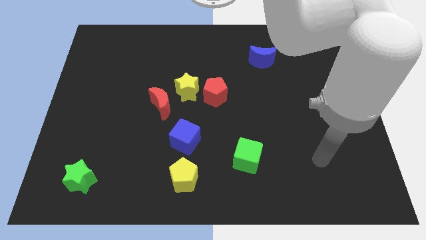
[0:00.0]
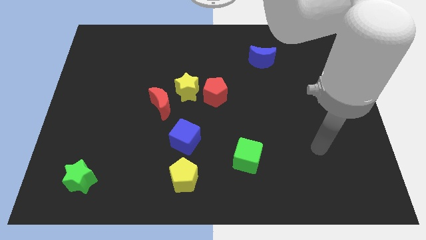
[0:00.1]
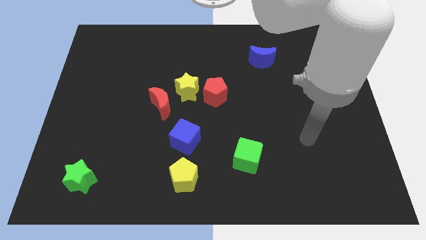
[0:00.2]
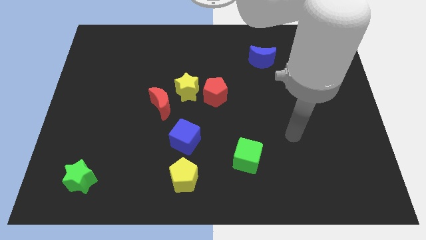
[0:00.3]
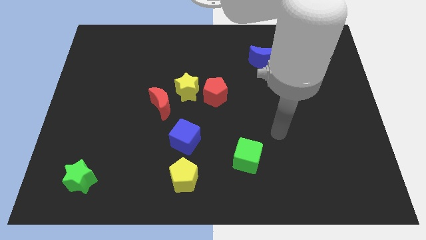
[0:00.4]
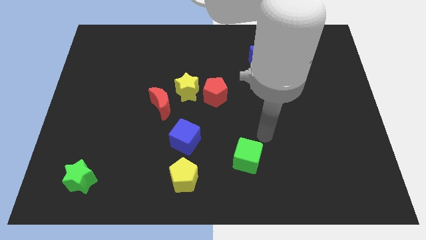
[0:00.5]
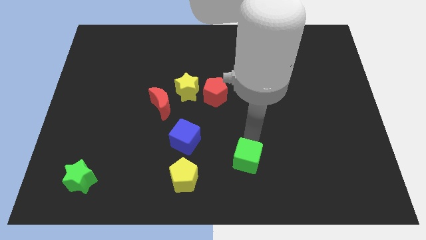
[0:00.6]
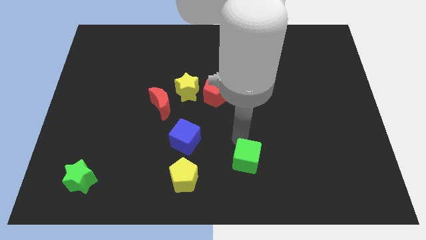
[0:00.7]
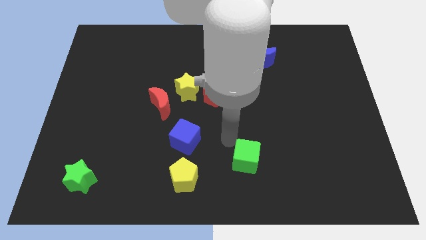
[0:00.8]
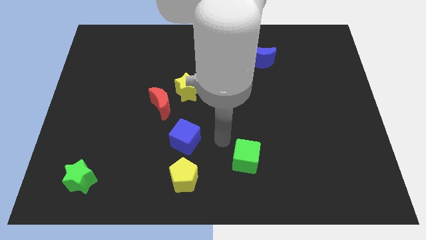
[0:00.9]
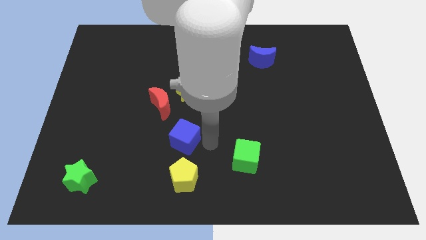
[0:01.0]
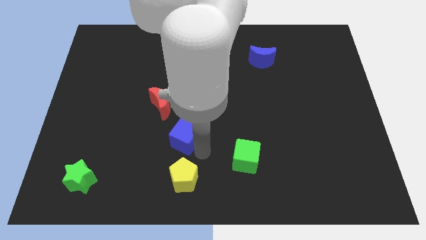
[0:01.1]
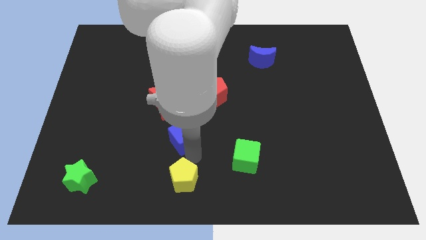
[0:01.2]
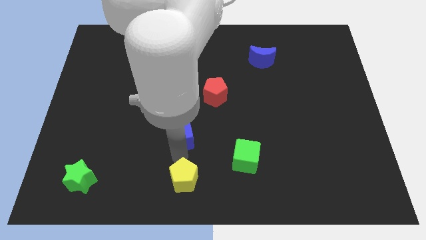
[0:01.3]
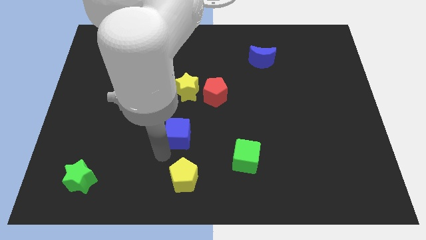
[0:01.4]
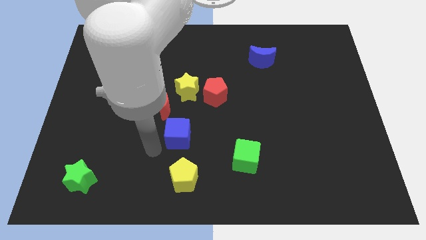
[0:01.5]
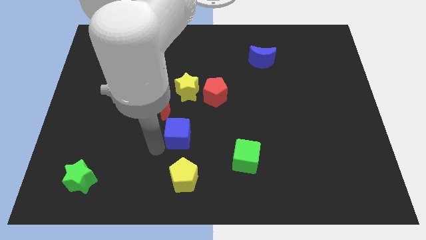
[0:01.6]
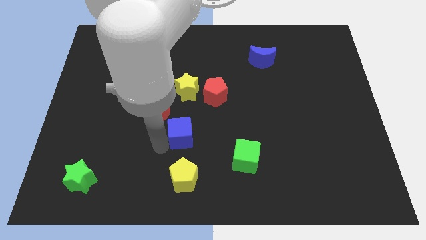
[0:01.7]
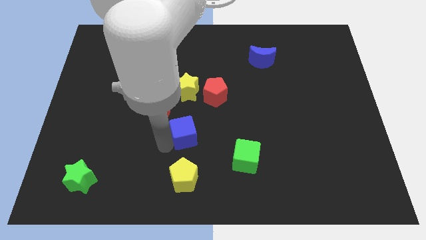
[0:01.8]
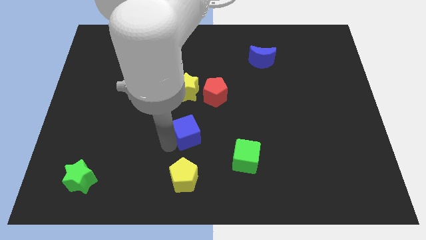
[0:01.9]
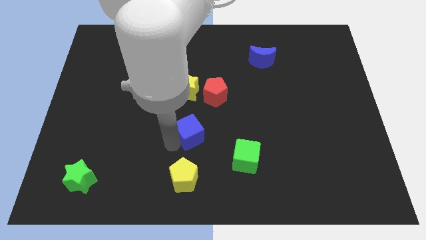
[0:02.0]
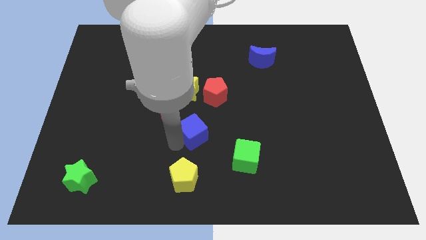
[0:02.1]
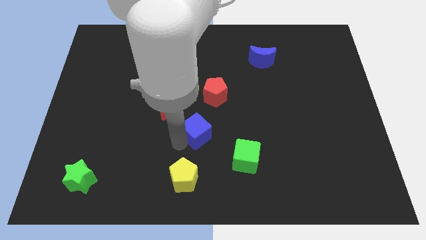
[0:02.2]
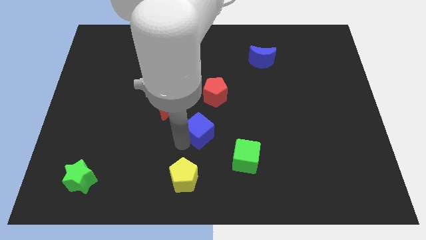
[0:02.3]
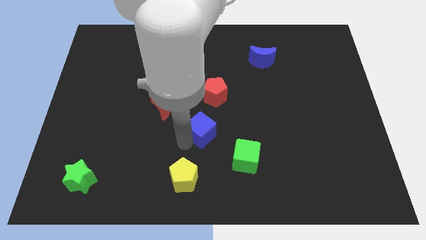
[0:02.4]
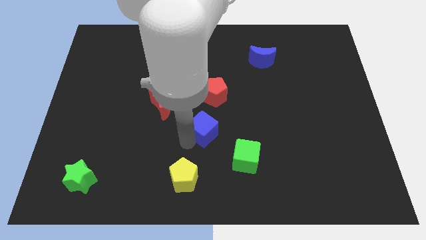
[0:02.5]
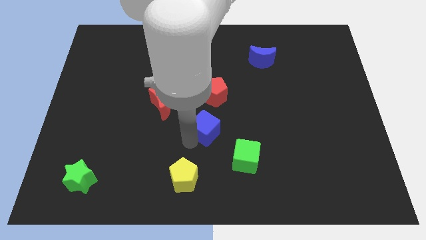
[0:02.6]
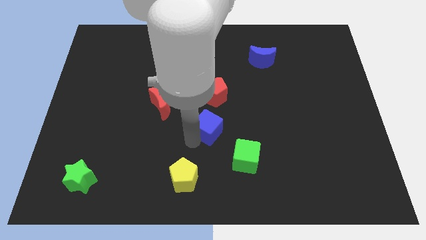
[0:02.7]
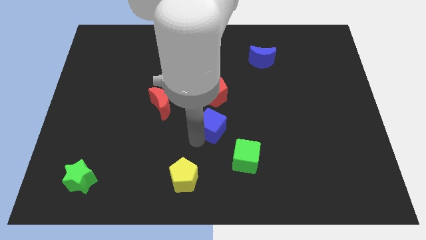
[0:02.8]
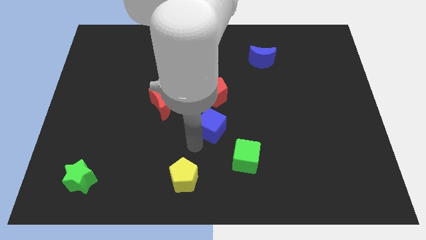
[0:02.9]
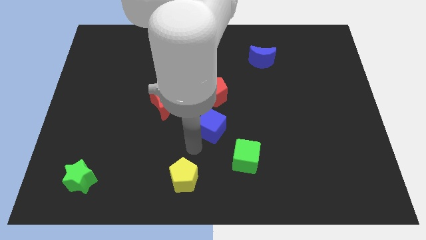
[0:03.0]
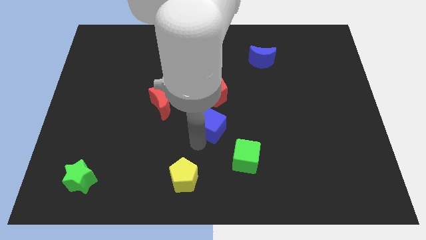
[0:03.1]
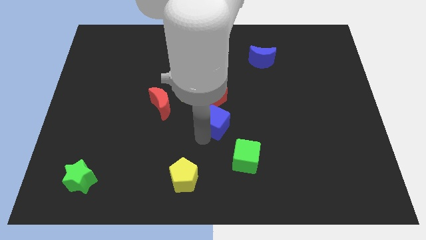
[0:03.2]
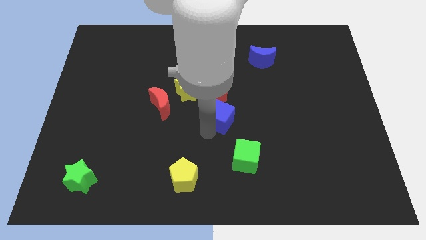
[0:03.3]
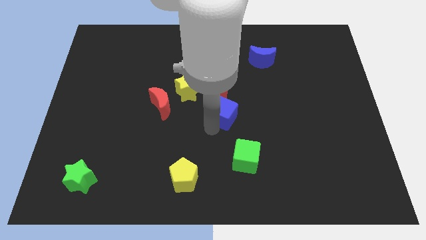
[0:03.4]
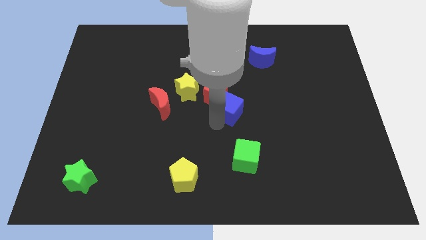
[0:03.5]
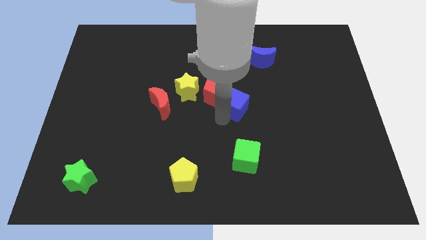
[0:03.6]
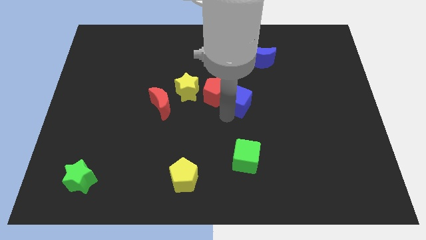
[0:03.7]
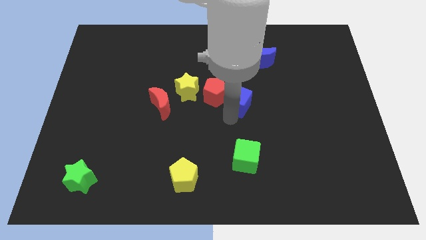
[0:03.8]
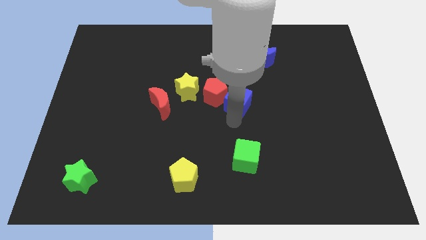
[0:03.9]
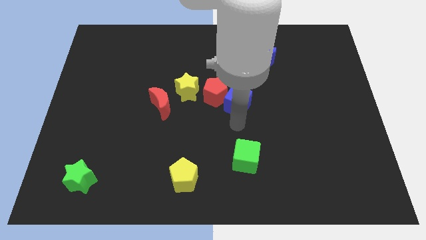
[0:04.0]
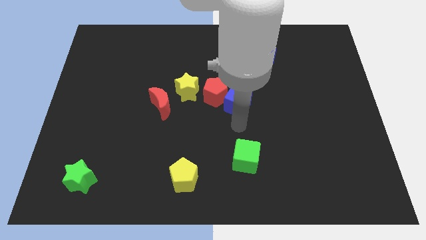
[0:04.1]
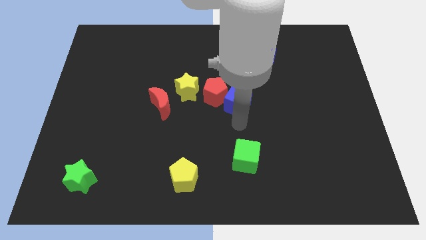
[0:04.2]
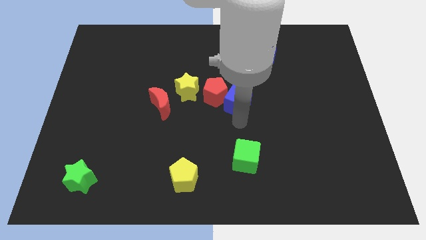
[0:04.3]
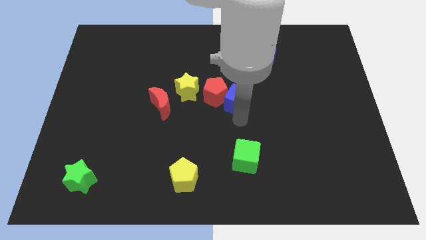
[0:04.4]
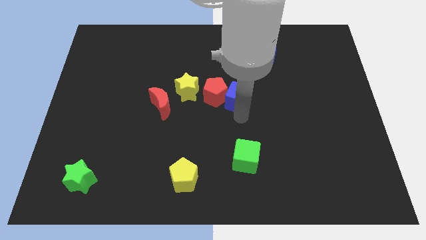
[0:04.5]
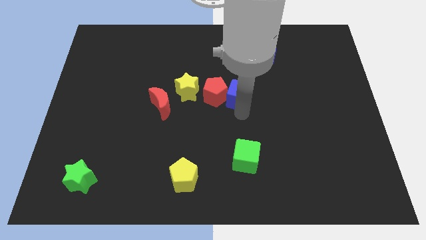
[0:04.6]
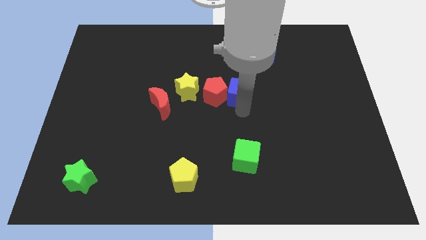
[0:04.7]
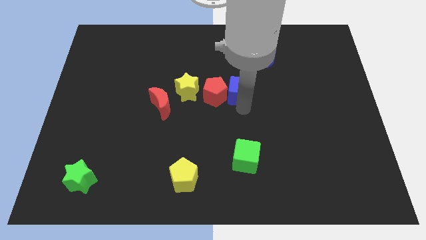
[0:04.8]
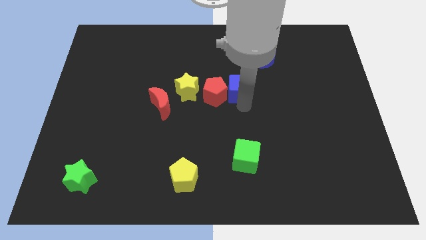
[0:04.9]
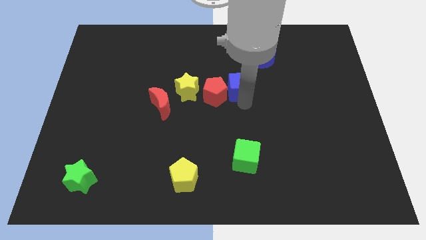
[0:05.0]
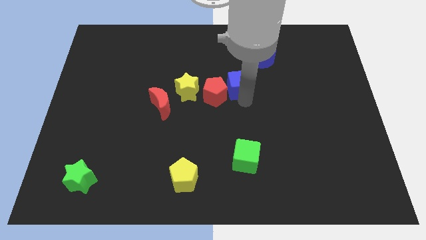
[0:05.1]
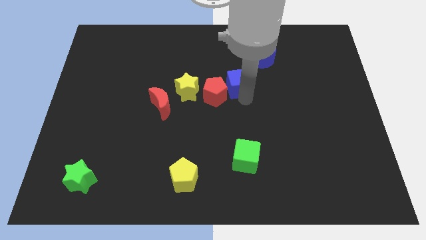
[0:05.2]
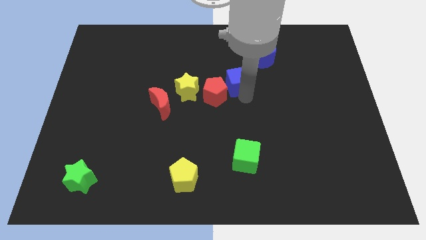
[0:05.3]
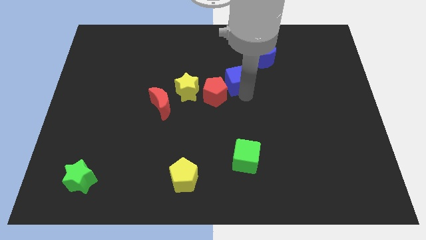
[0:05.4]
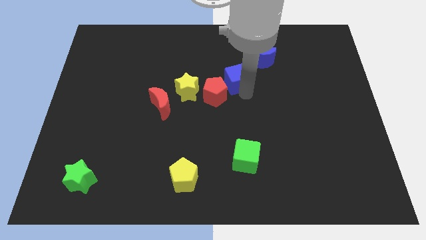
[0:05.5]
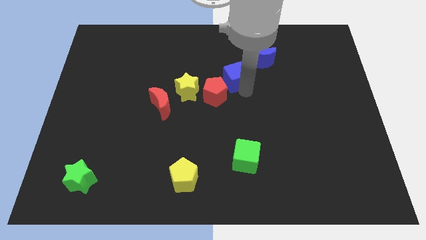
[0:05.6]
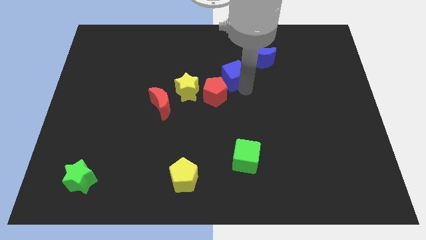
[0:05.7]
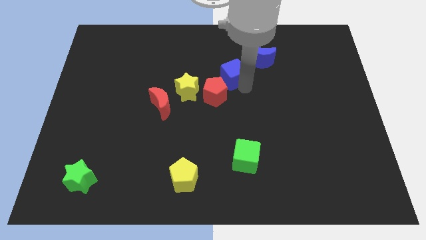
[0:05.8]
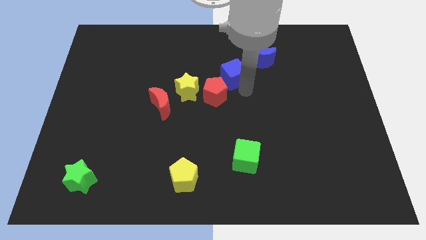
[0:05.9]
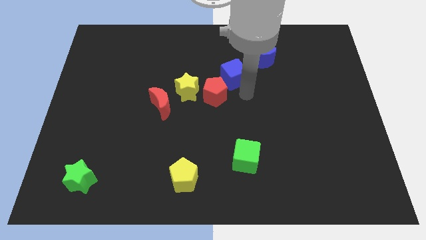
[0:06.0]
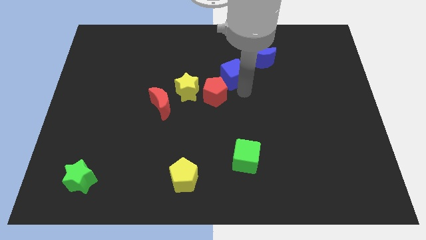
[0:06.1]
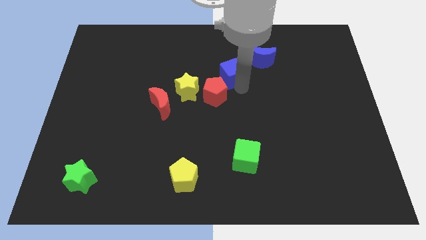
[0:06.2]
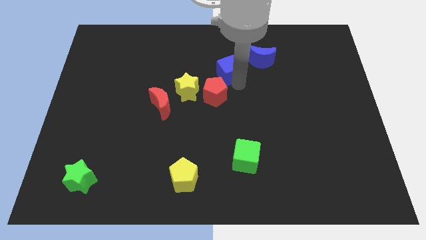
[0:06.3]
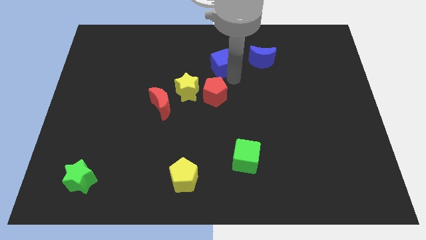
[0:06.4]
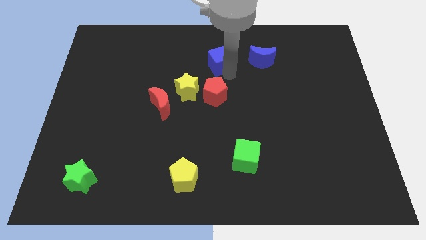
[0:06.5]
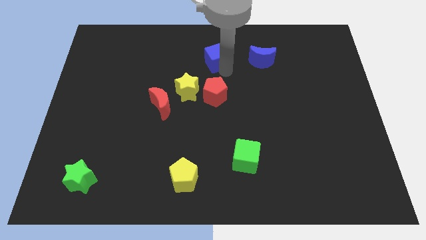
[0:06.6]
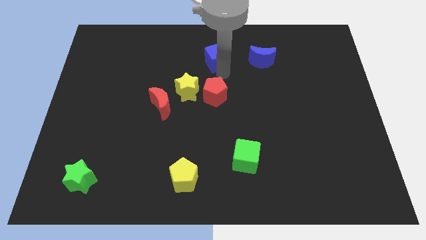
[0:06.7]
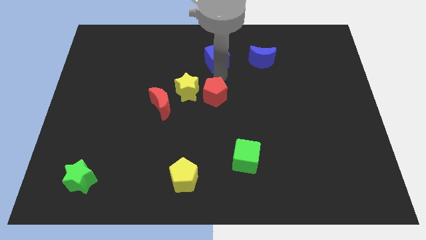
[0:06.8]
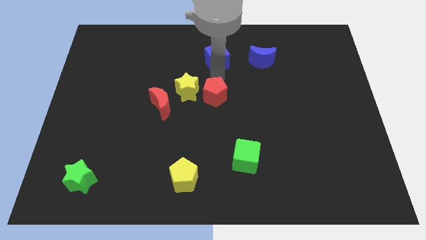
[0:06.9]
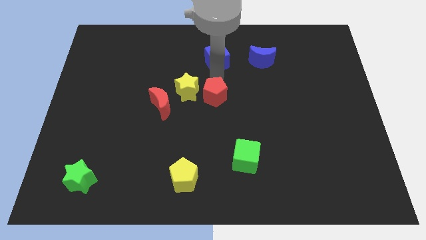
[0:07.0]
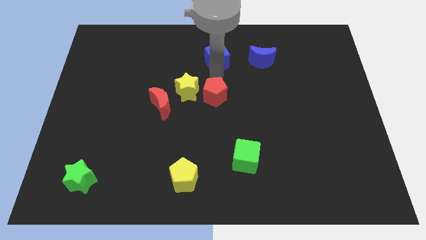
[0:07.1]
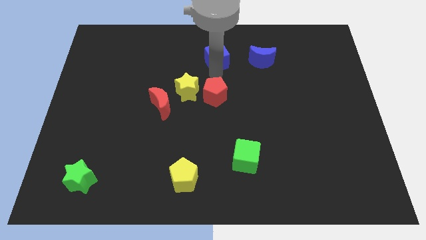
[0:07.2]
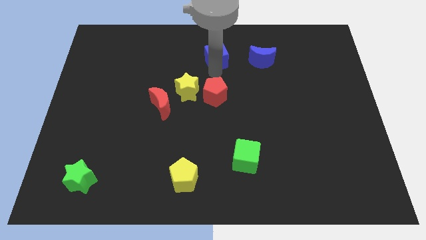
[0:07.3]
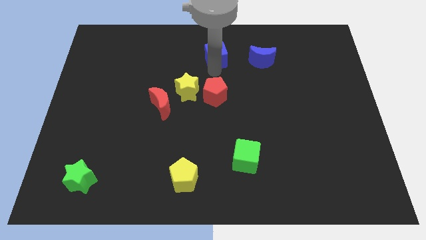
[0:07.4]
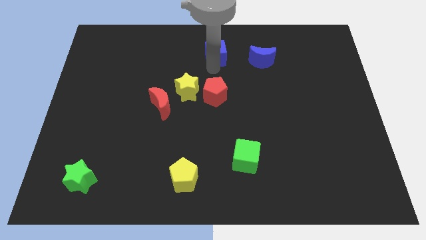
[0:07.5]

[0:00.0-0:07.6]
put the blue cube to the towards your base

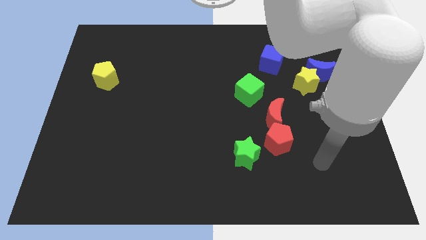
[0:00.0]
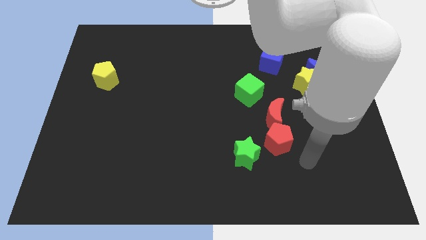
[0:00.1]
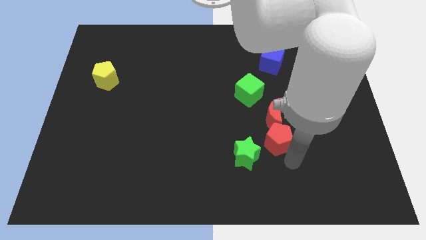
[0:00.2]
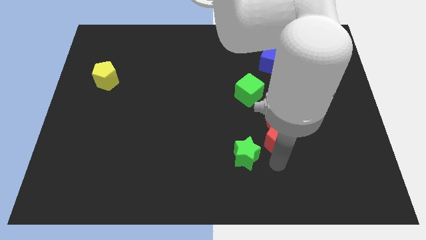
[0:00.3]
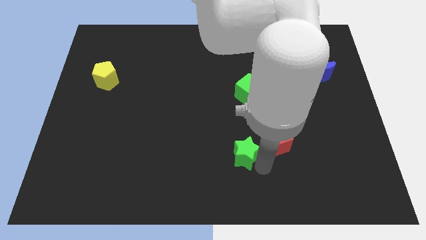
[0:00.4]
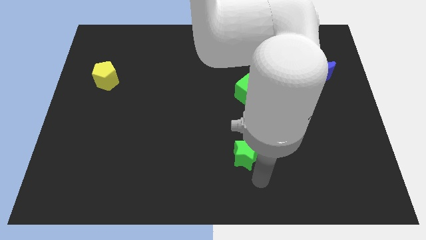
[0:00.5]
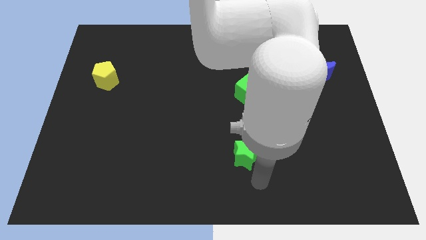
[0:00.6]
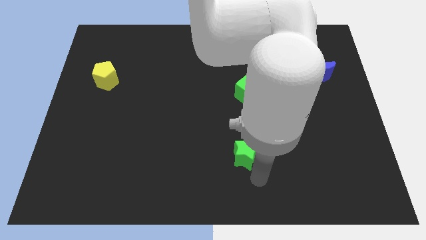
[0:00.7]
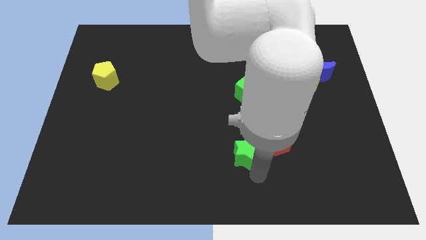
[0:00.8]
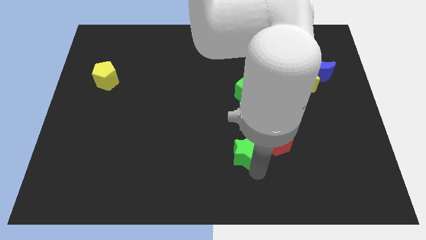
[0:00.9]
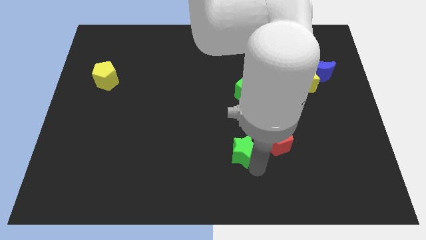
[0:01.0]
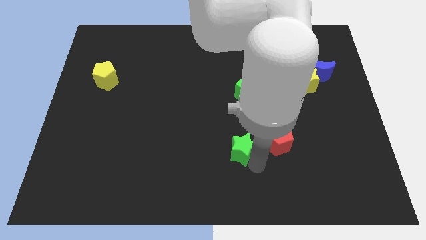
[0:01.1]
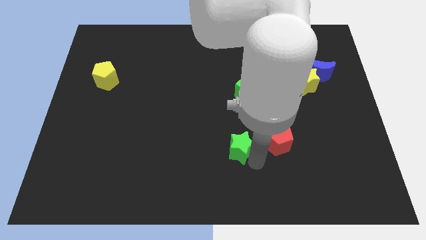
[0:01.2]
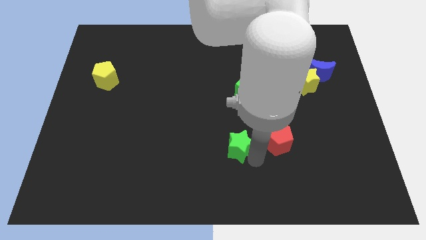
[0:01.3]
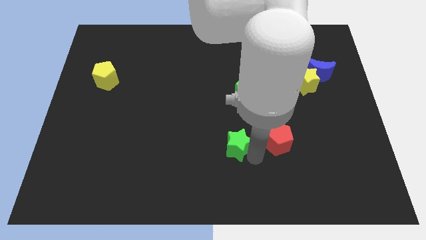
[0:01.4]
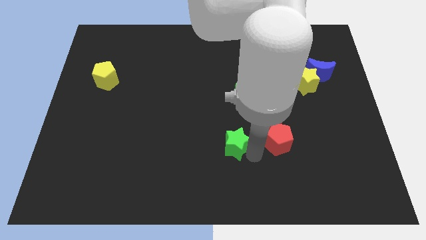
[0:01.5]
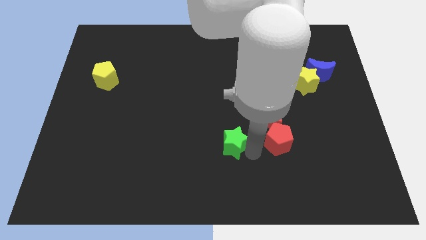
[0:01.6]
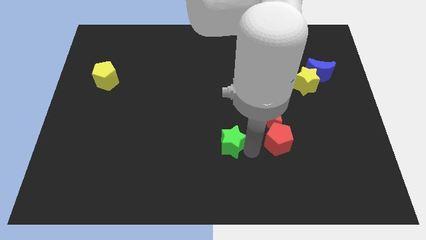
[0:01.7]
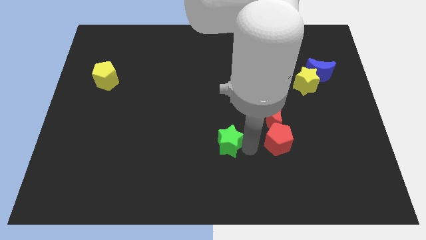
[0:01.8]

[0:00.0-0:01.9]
push the green star to the center
